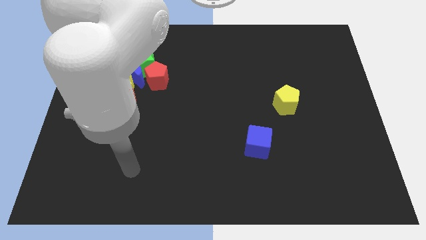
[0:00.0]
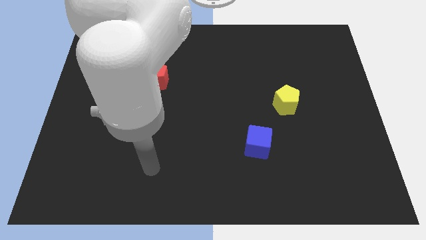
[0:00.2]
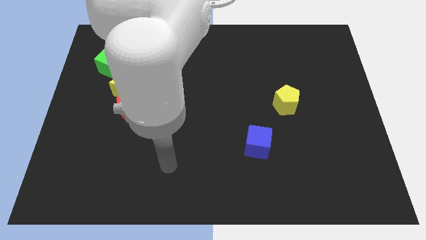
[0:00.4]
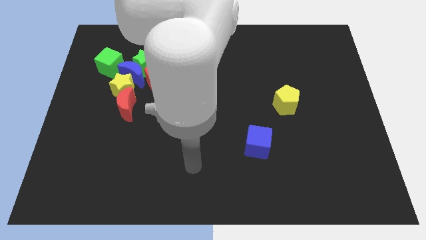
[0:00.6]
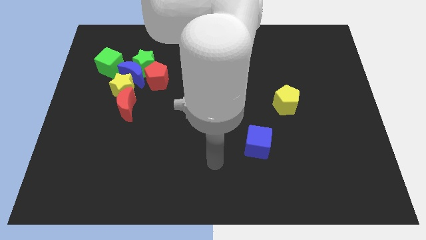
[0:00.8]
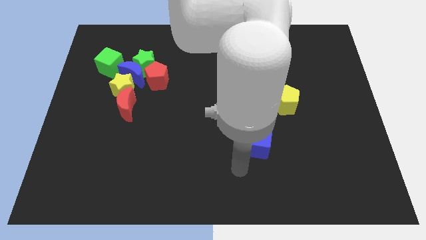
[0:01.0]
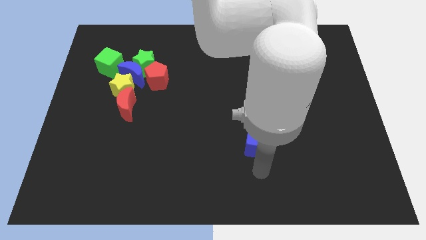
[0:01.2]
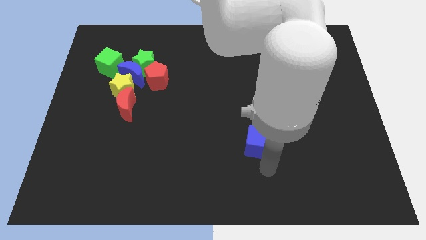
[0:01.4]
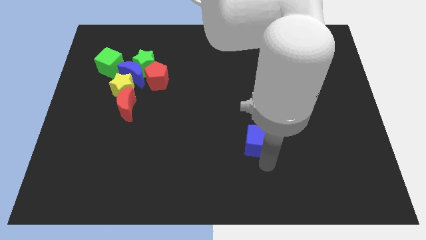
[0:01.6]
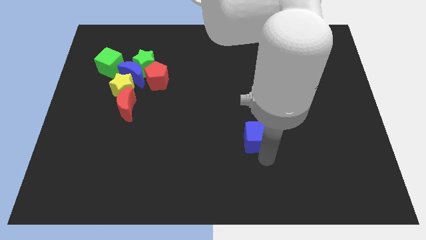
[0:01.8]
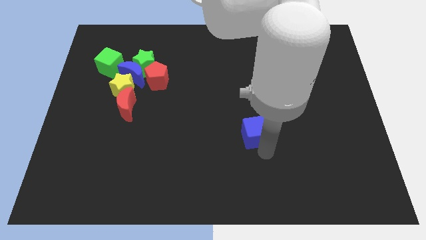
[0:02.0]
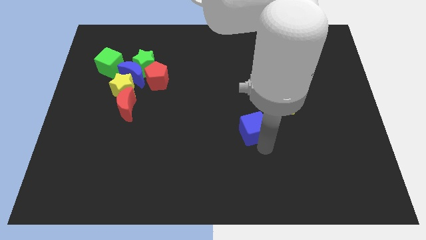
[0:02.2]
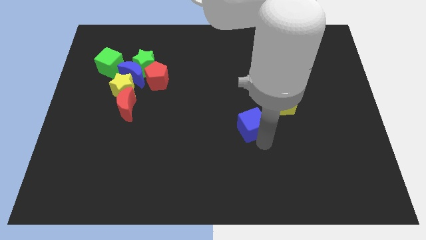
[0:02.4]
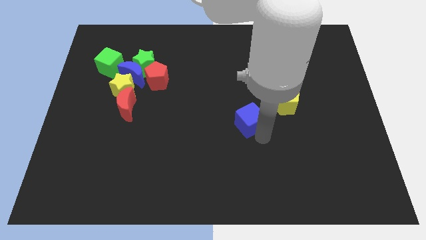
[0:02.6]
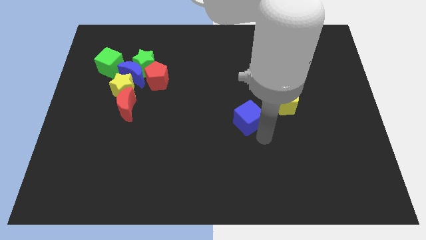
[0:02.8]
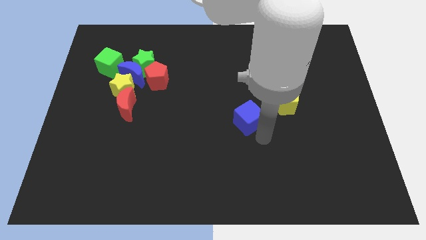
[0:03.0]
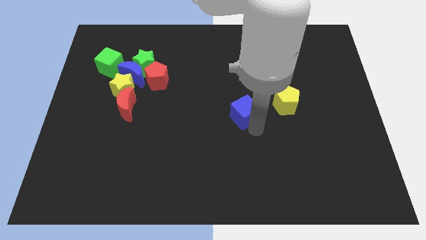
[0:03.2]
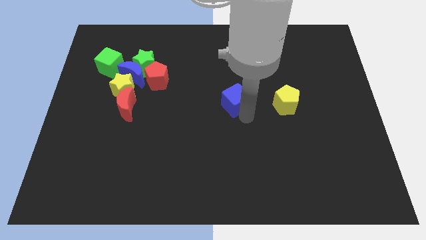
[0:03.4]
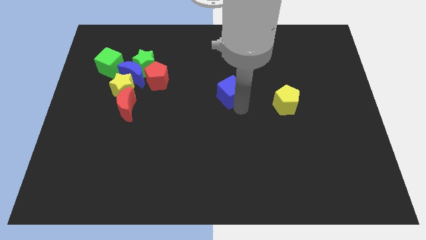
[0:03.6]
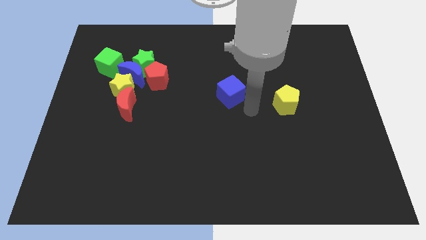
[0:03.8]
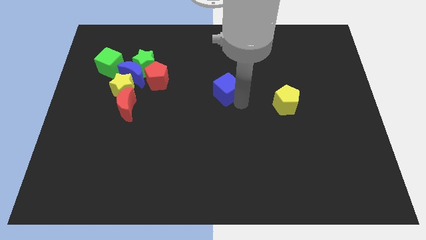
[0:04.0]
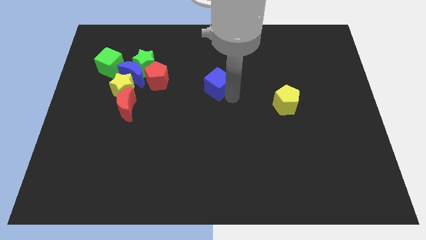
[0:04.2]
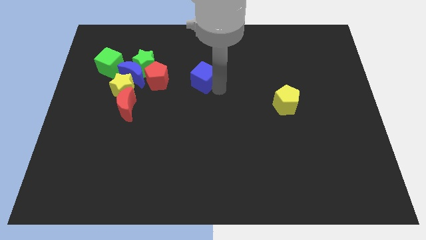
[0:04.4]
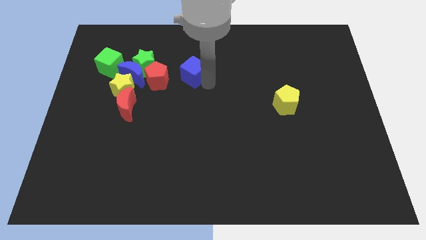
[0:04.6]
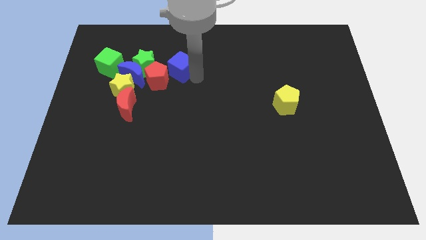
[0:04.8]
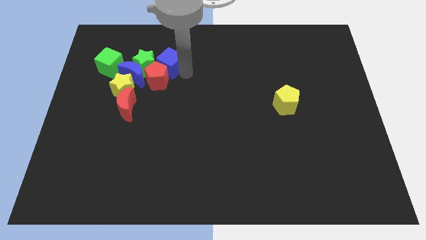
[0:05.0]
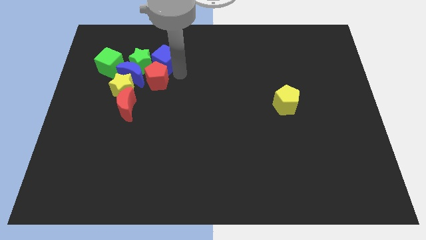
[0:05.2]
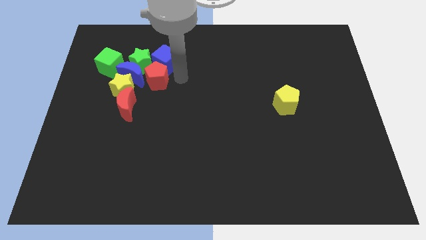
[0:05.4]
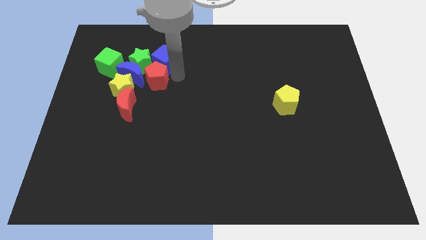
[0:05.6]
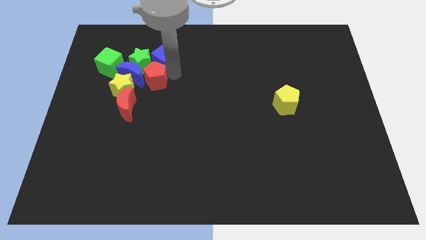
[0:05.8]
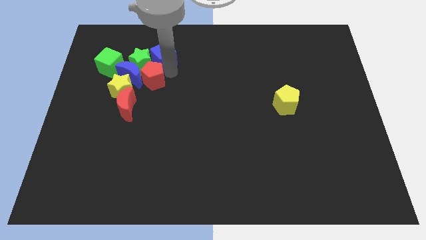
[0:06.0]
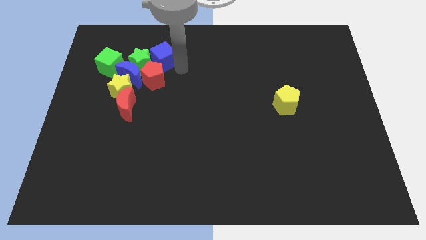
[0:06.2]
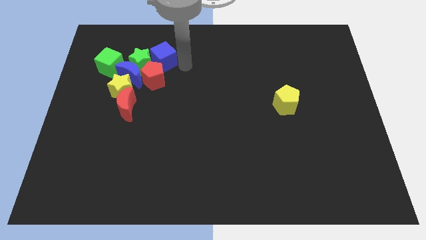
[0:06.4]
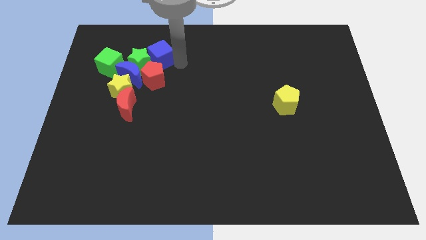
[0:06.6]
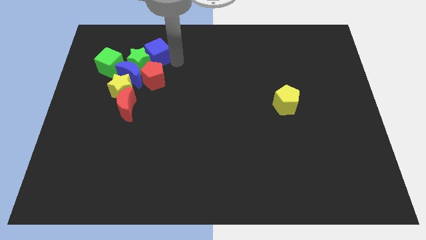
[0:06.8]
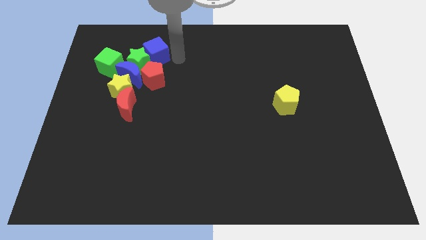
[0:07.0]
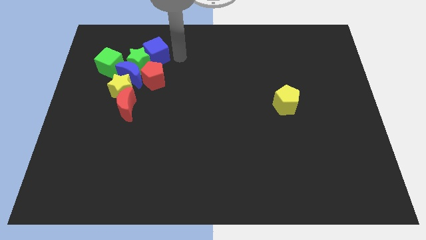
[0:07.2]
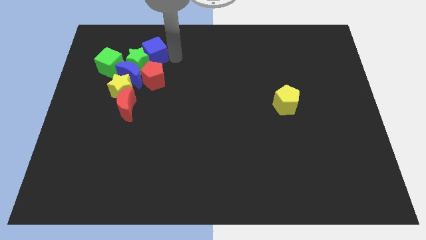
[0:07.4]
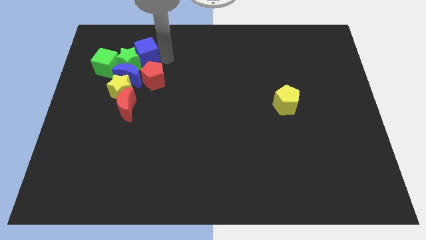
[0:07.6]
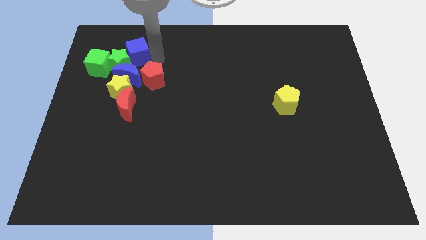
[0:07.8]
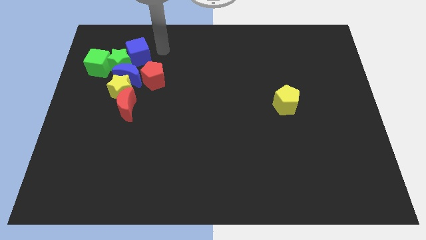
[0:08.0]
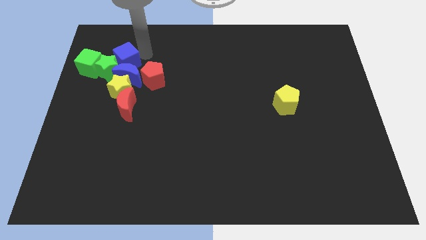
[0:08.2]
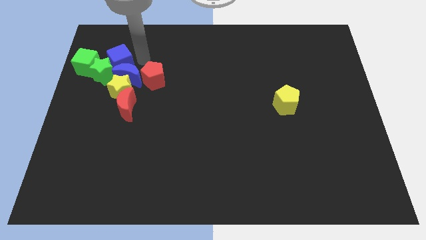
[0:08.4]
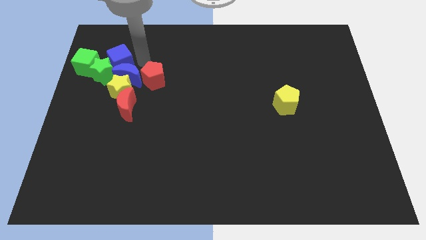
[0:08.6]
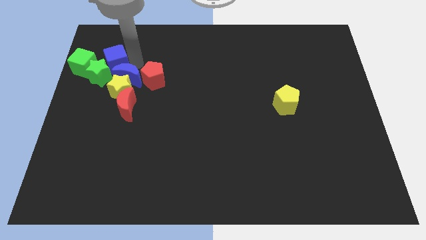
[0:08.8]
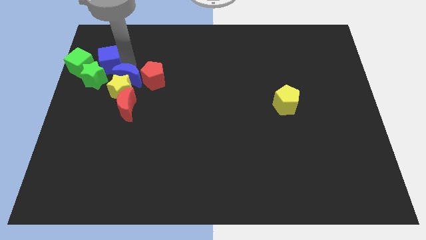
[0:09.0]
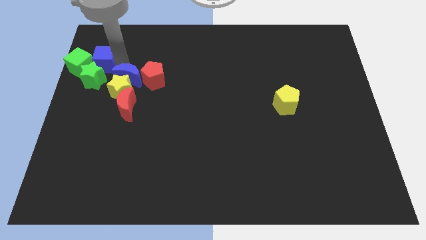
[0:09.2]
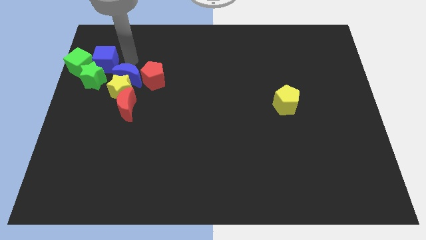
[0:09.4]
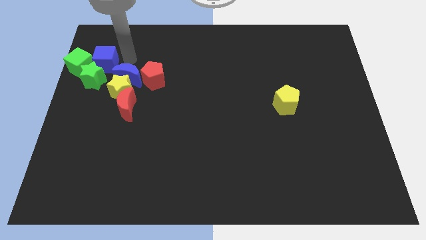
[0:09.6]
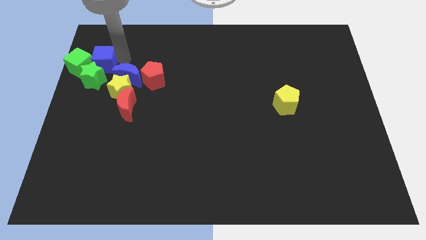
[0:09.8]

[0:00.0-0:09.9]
slide the blue cube to the green cube

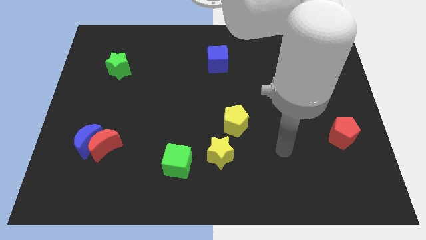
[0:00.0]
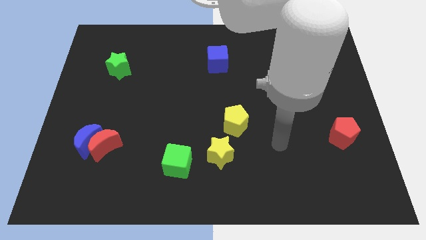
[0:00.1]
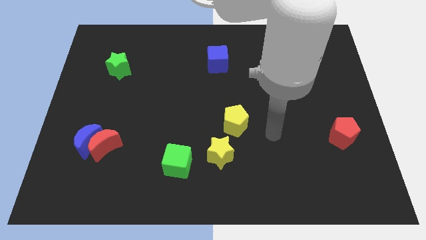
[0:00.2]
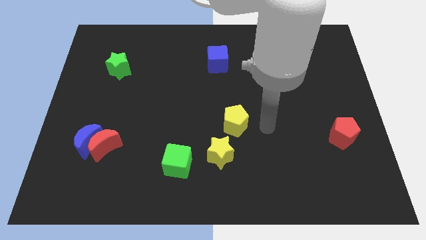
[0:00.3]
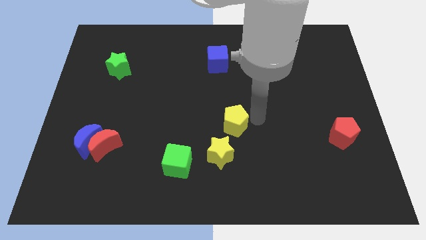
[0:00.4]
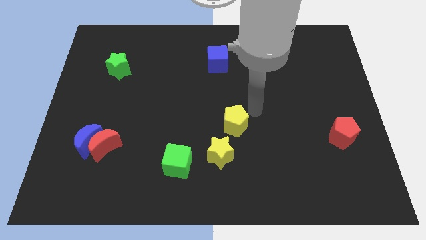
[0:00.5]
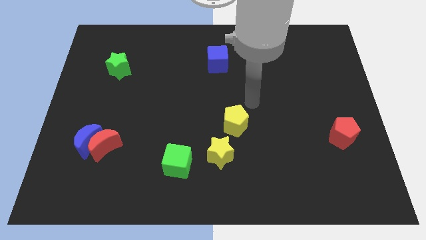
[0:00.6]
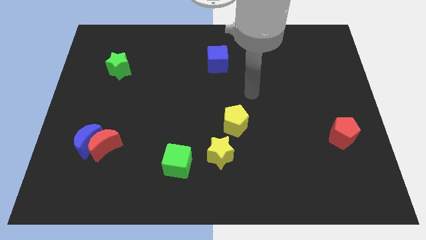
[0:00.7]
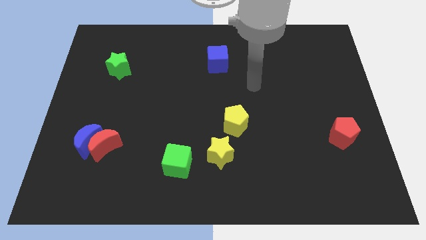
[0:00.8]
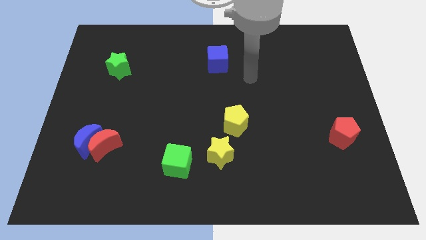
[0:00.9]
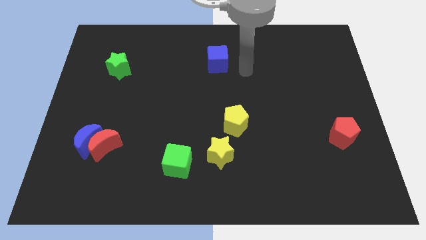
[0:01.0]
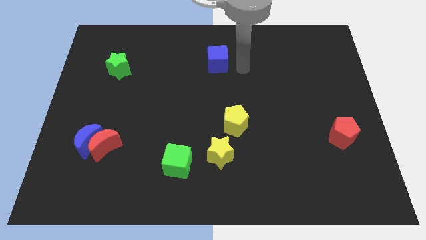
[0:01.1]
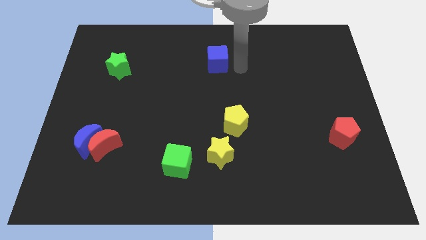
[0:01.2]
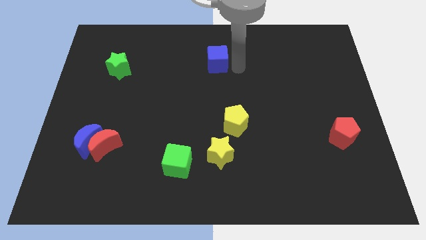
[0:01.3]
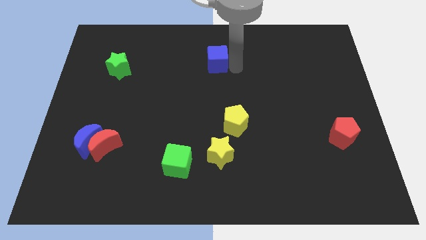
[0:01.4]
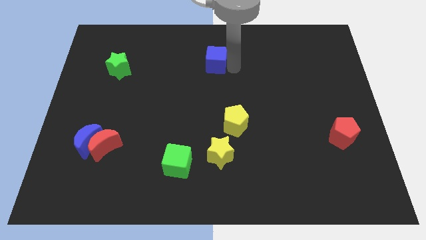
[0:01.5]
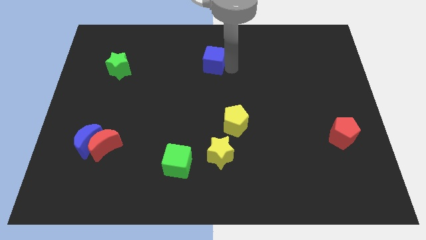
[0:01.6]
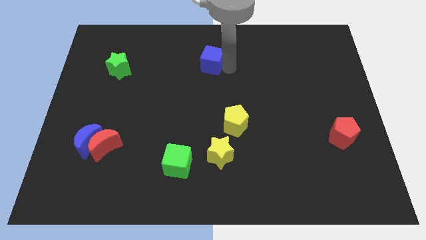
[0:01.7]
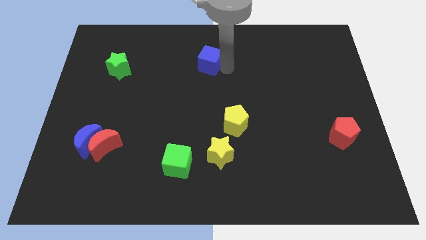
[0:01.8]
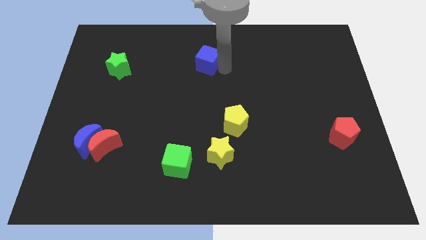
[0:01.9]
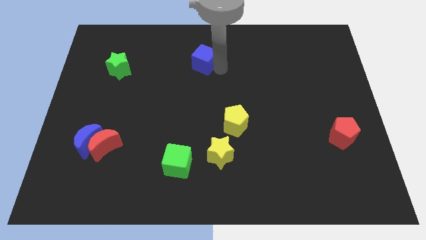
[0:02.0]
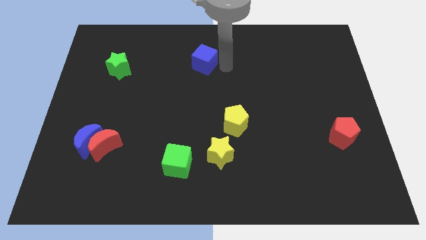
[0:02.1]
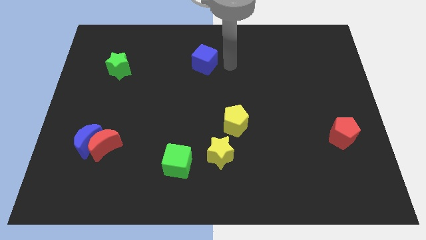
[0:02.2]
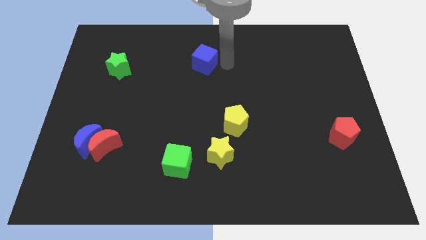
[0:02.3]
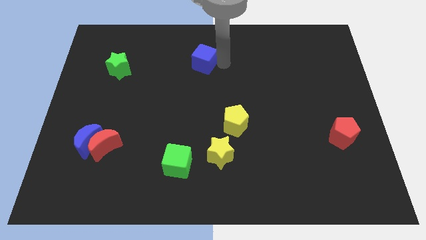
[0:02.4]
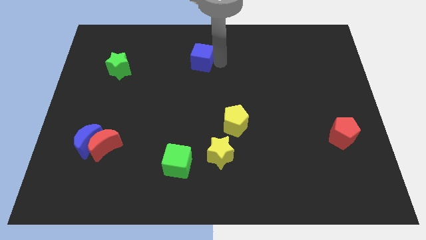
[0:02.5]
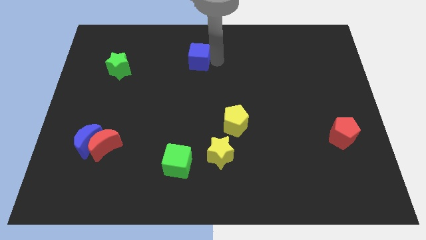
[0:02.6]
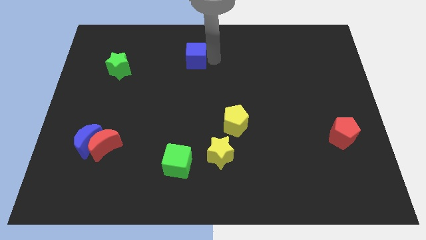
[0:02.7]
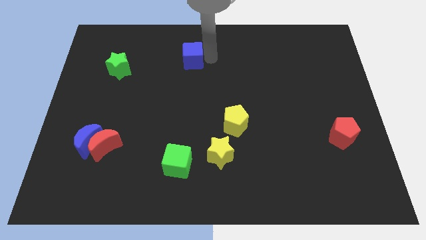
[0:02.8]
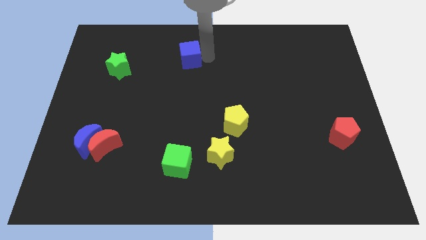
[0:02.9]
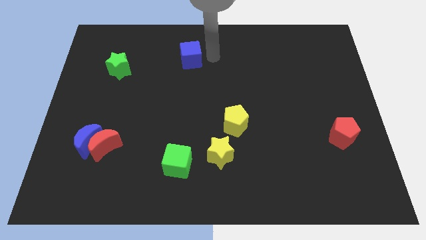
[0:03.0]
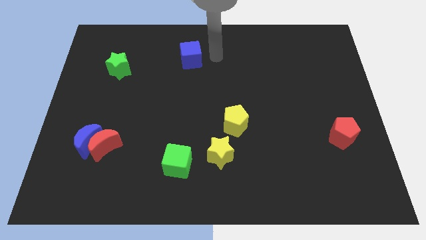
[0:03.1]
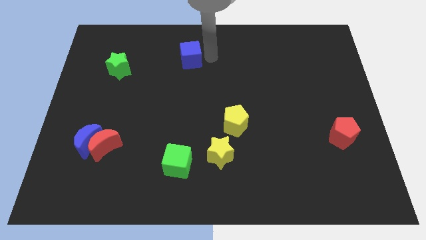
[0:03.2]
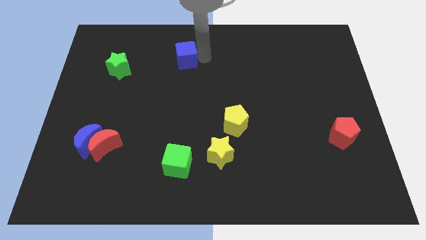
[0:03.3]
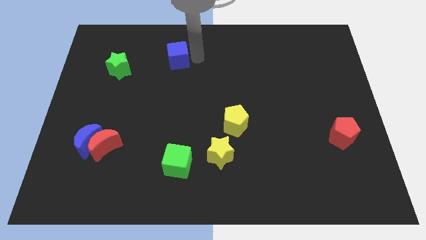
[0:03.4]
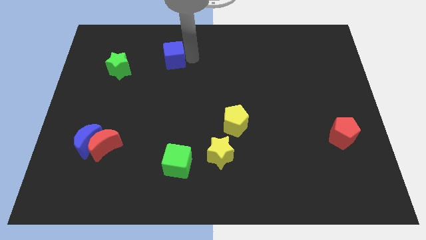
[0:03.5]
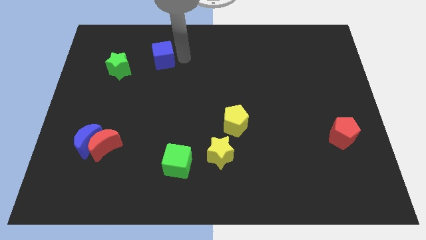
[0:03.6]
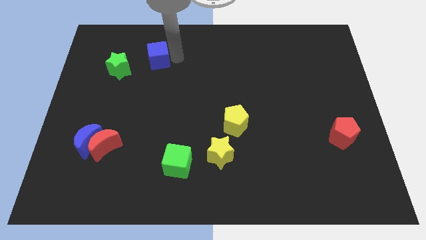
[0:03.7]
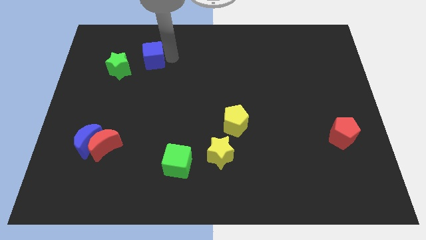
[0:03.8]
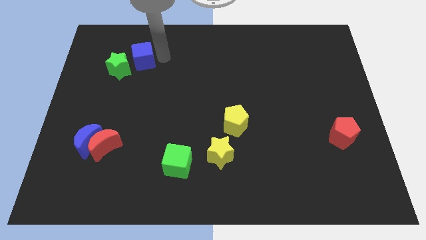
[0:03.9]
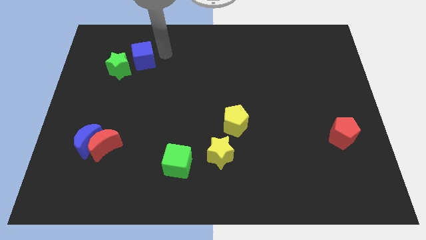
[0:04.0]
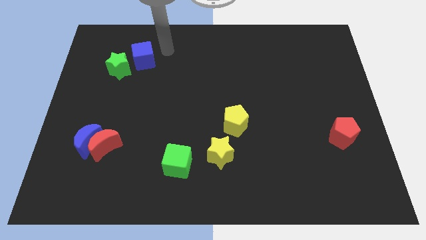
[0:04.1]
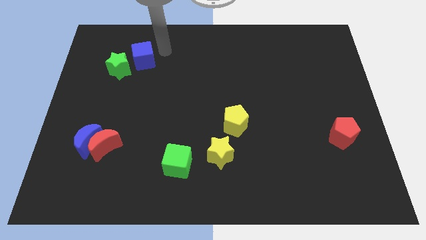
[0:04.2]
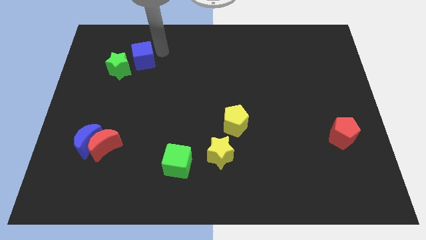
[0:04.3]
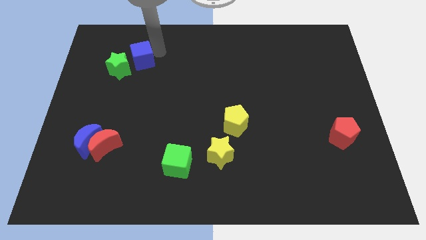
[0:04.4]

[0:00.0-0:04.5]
push the blue cube close to the green star
